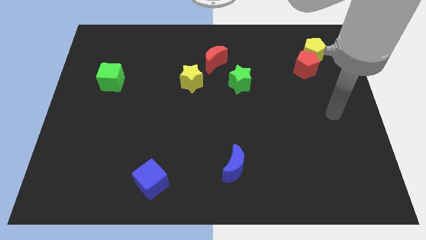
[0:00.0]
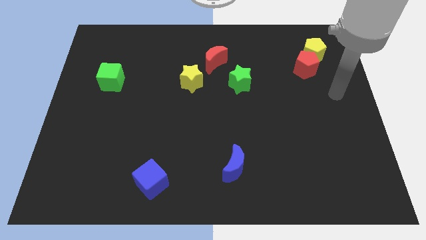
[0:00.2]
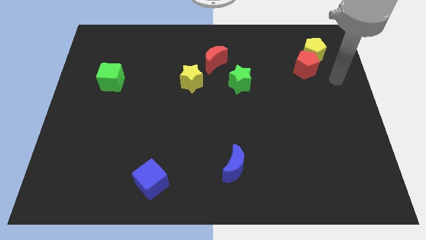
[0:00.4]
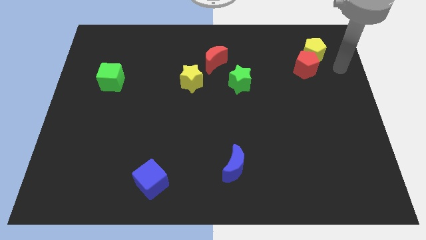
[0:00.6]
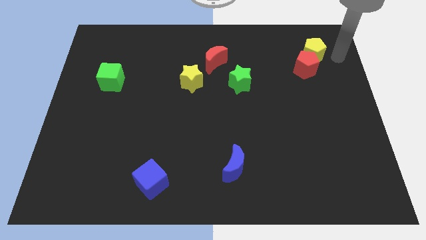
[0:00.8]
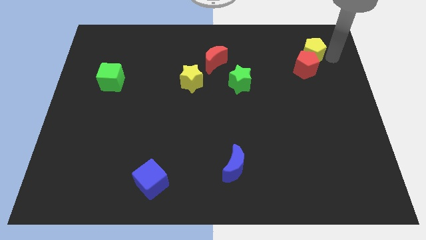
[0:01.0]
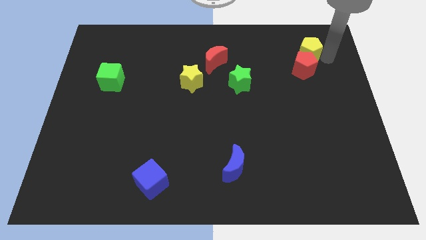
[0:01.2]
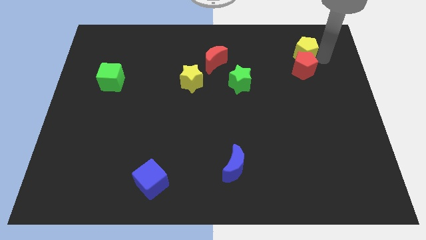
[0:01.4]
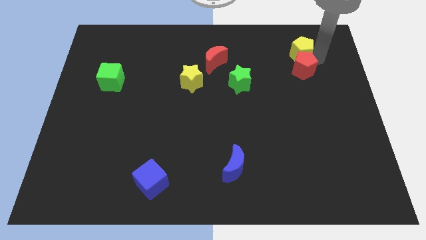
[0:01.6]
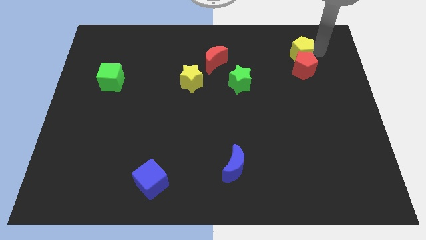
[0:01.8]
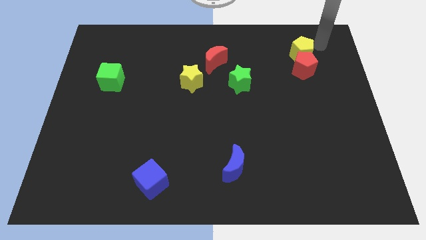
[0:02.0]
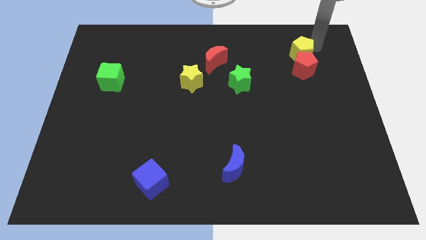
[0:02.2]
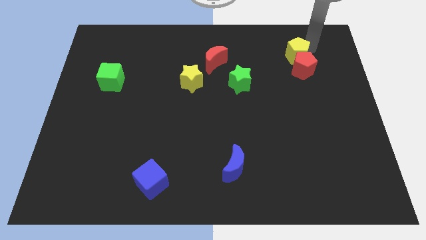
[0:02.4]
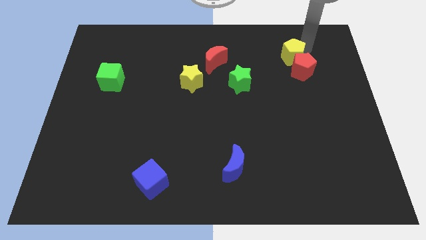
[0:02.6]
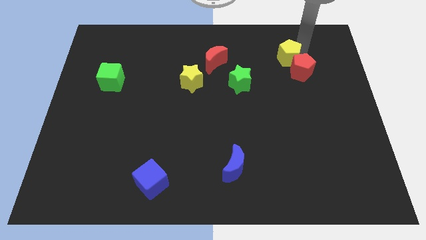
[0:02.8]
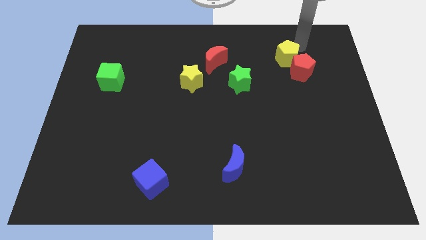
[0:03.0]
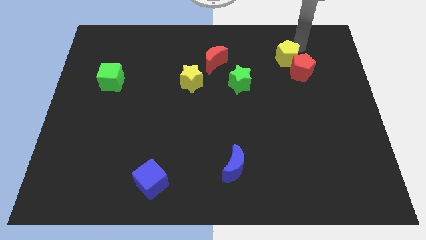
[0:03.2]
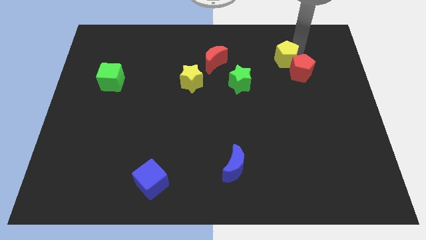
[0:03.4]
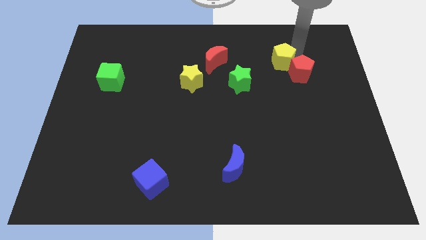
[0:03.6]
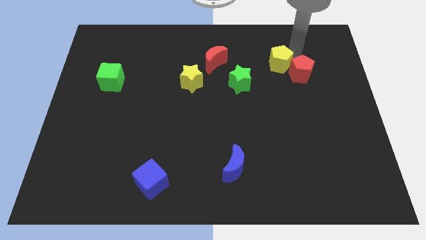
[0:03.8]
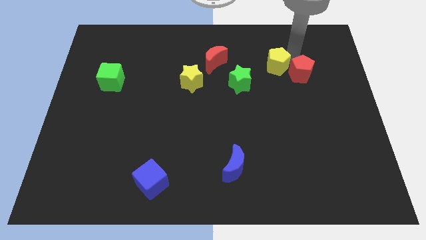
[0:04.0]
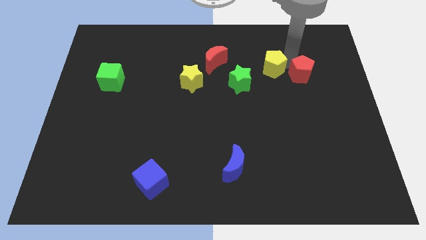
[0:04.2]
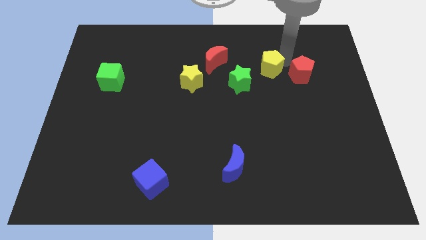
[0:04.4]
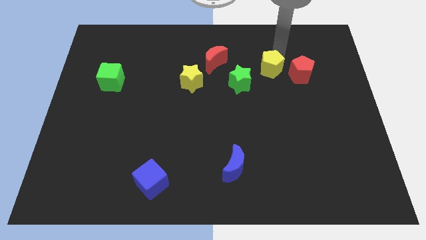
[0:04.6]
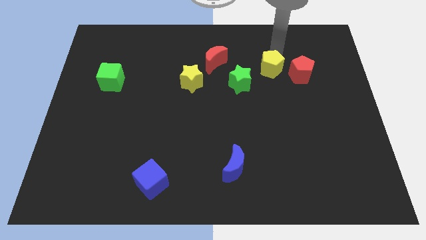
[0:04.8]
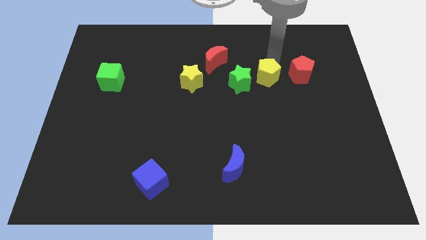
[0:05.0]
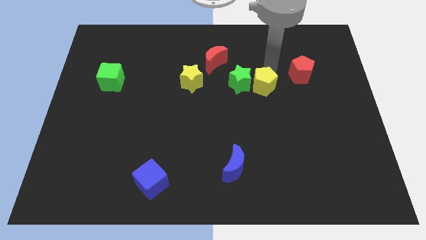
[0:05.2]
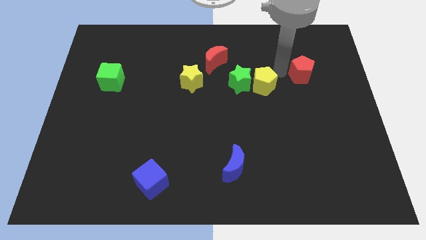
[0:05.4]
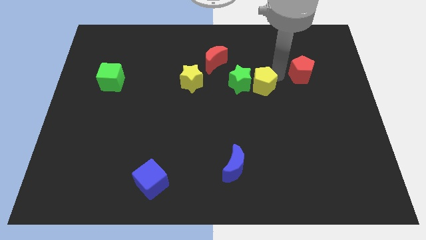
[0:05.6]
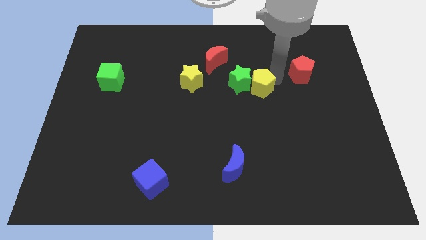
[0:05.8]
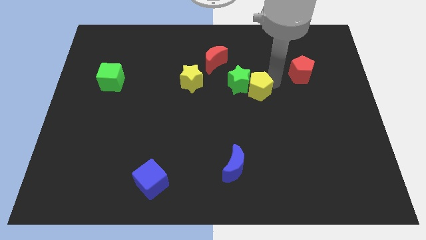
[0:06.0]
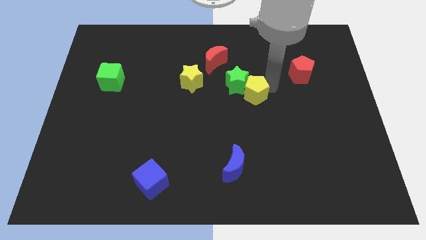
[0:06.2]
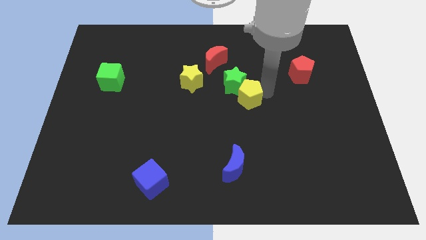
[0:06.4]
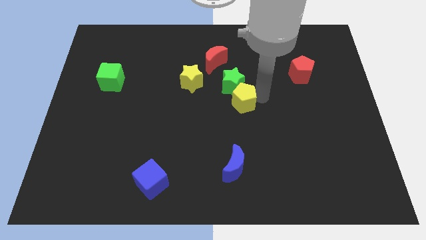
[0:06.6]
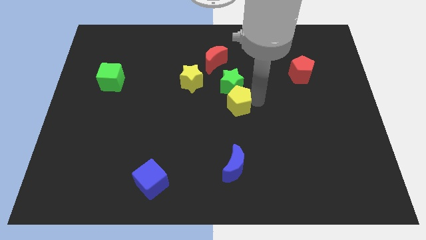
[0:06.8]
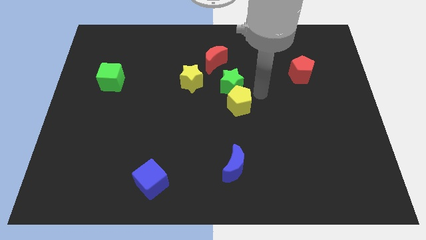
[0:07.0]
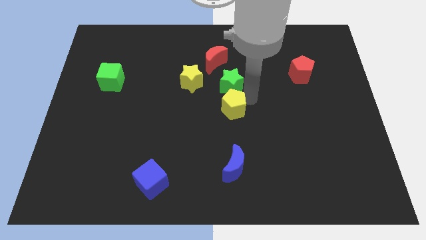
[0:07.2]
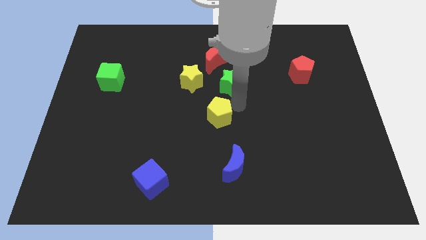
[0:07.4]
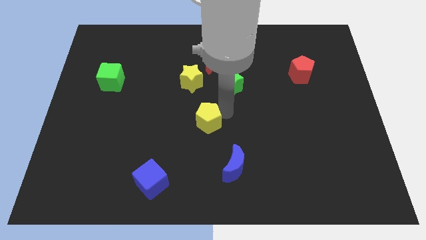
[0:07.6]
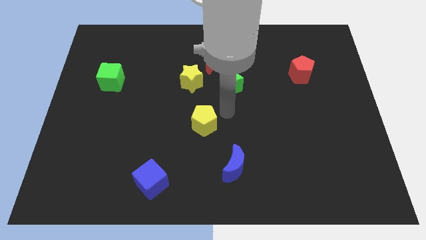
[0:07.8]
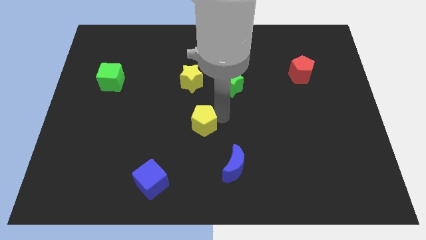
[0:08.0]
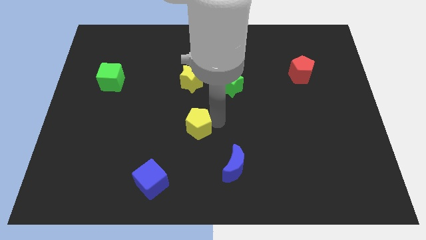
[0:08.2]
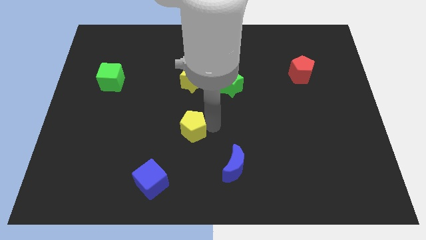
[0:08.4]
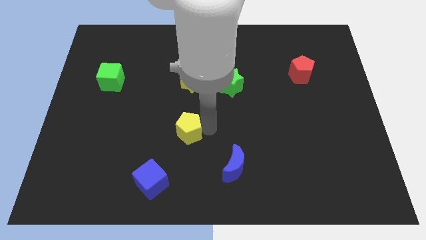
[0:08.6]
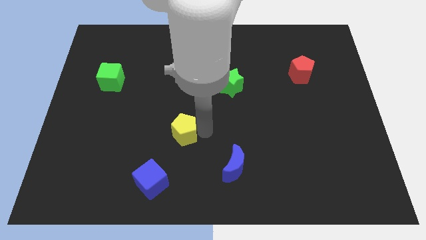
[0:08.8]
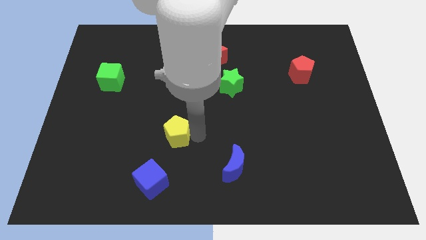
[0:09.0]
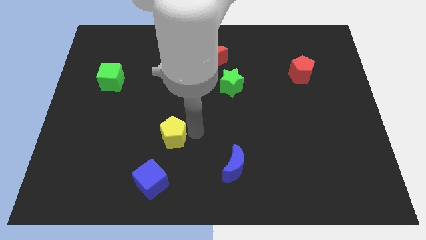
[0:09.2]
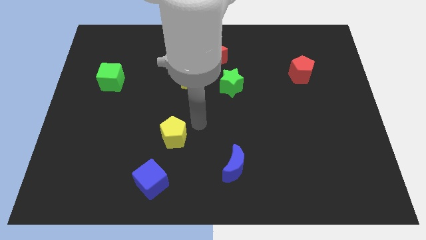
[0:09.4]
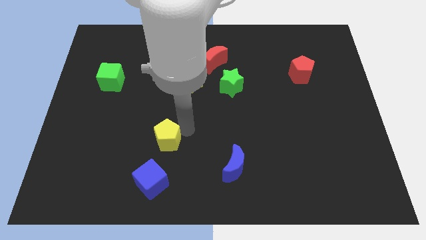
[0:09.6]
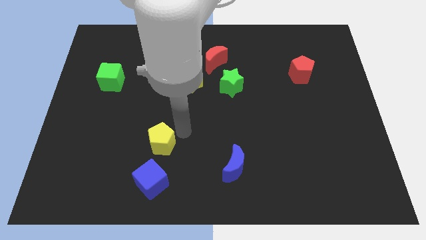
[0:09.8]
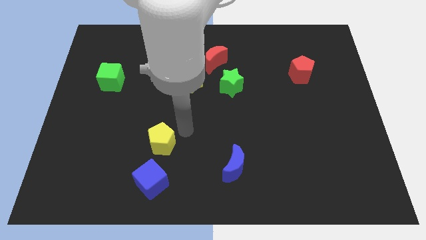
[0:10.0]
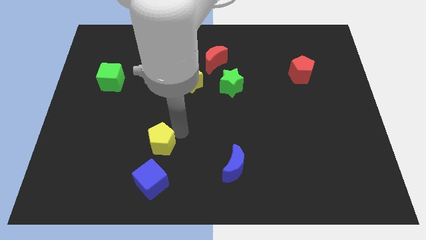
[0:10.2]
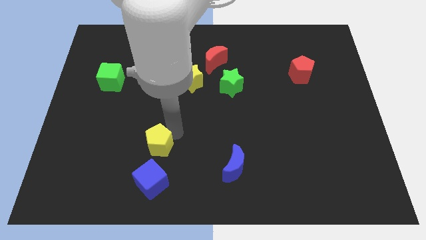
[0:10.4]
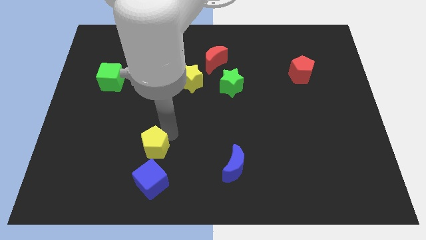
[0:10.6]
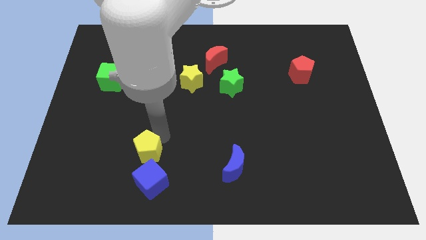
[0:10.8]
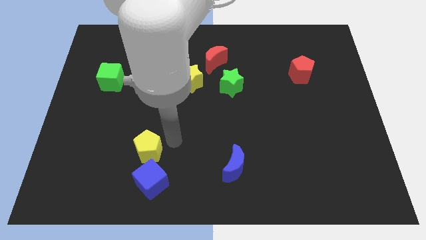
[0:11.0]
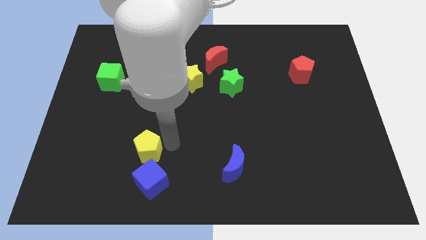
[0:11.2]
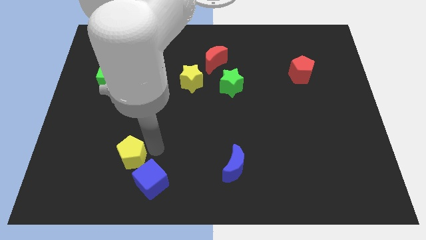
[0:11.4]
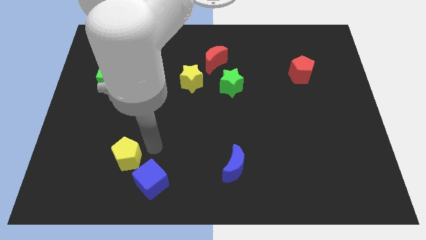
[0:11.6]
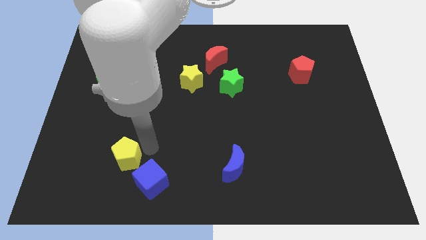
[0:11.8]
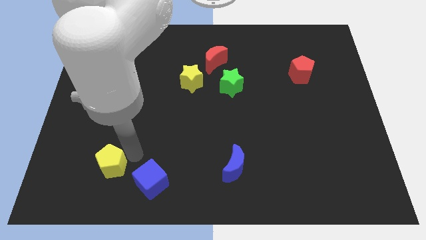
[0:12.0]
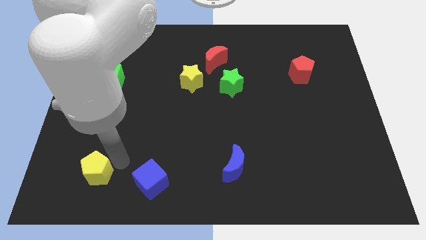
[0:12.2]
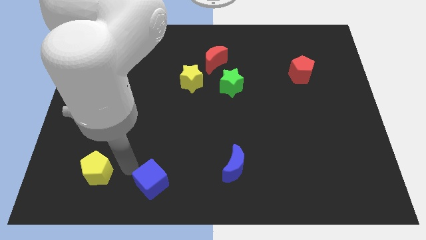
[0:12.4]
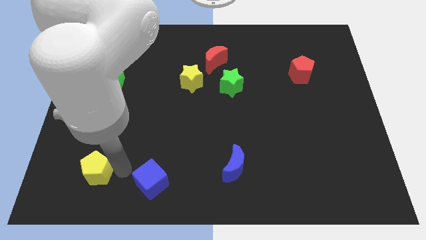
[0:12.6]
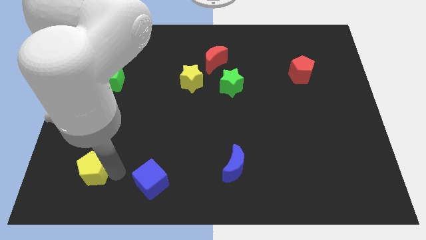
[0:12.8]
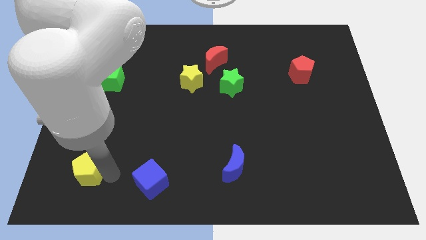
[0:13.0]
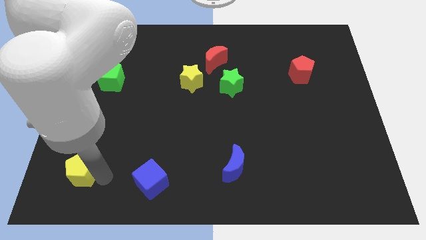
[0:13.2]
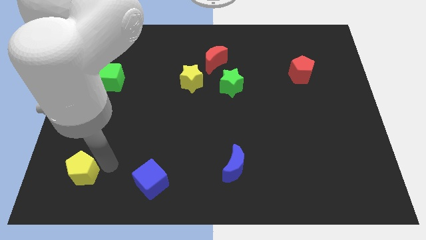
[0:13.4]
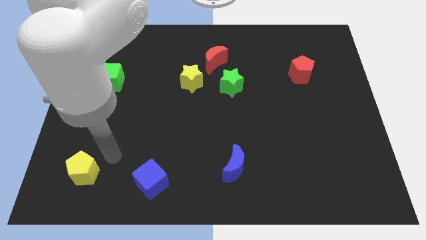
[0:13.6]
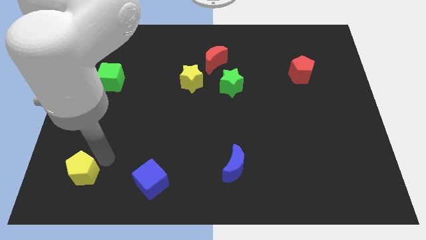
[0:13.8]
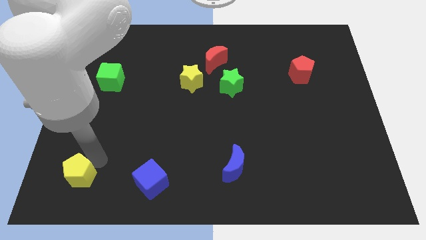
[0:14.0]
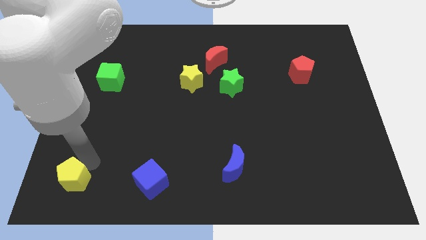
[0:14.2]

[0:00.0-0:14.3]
push the yellow pentagon to the bottom left
